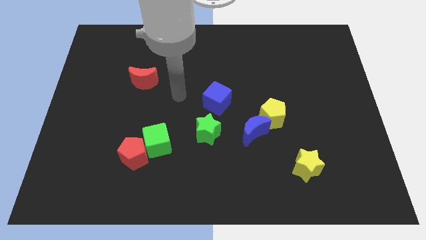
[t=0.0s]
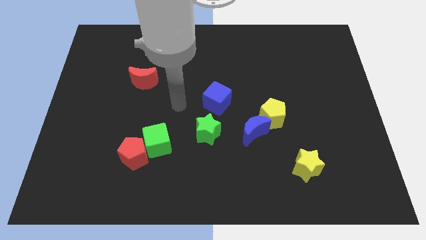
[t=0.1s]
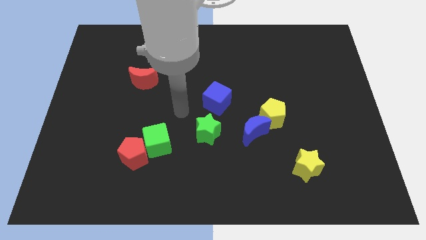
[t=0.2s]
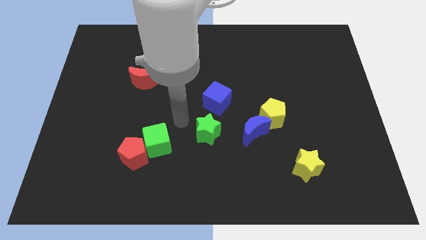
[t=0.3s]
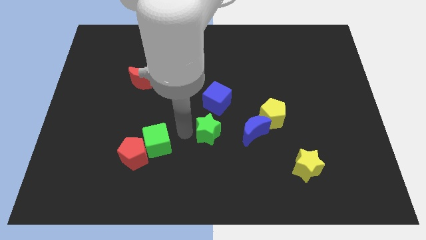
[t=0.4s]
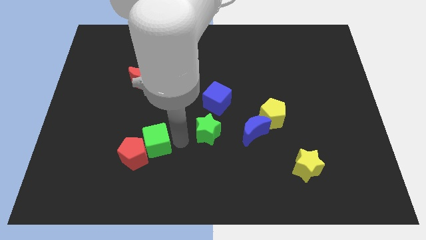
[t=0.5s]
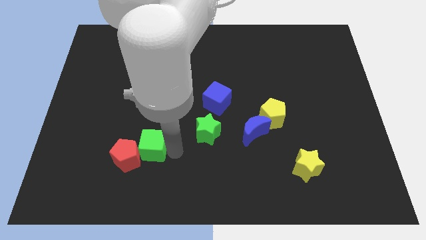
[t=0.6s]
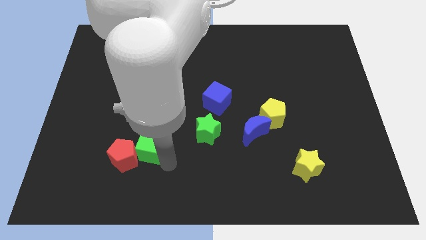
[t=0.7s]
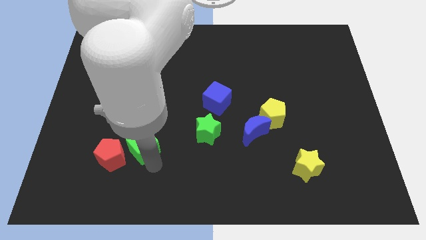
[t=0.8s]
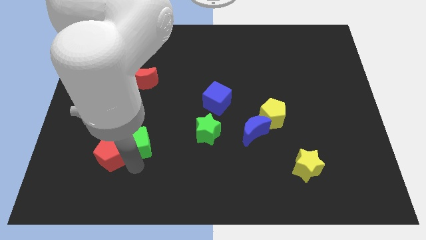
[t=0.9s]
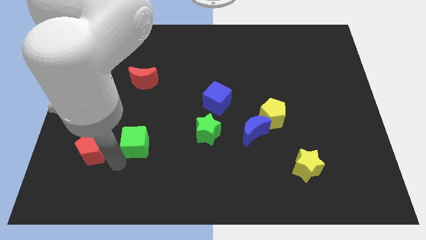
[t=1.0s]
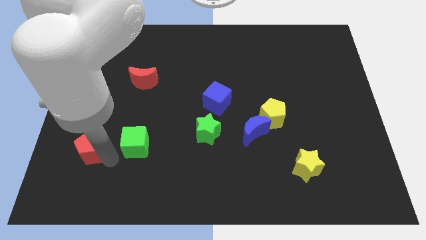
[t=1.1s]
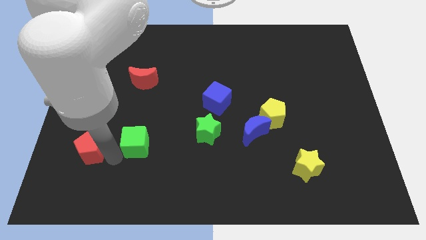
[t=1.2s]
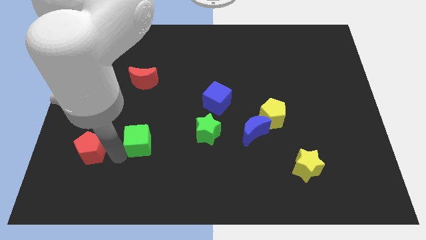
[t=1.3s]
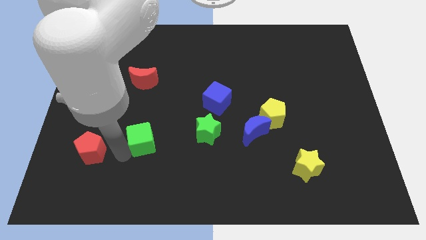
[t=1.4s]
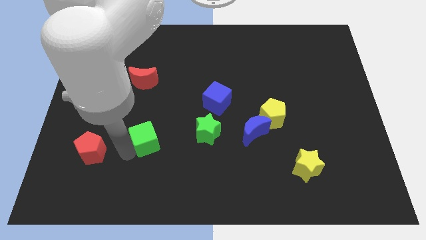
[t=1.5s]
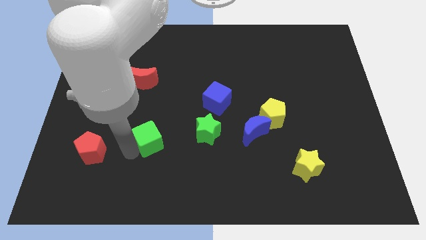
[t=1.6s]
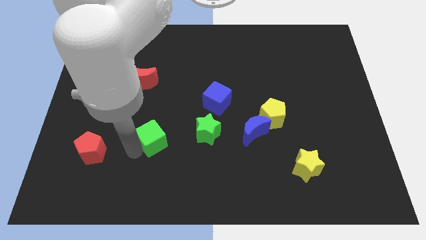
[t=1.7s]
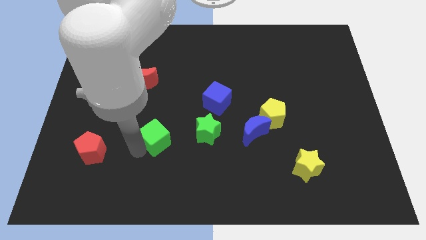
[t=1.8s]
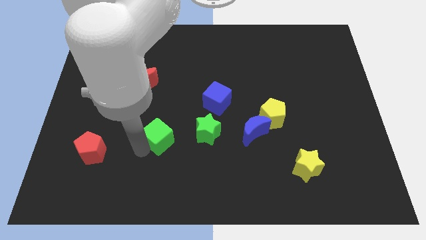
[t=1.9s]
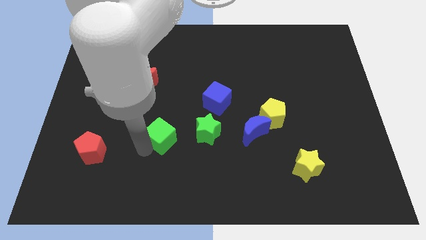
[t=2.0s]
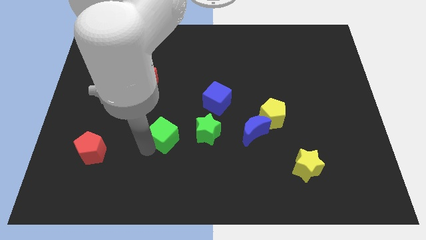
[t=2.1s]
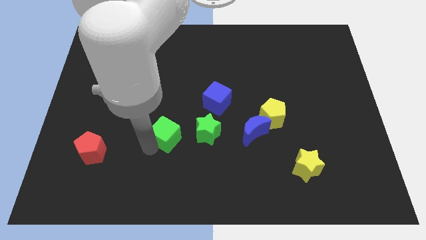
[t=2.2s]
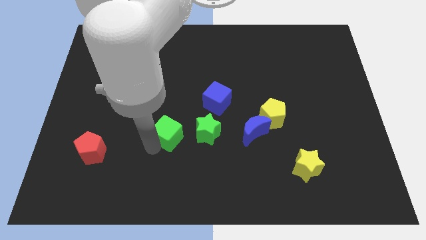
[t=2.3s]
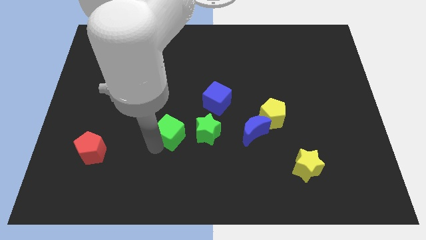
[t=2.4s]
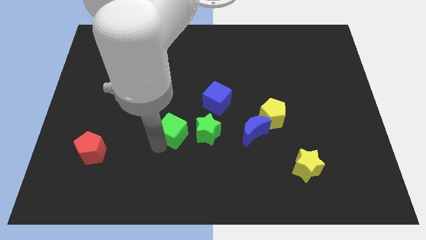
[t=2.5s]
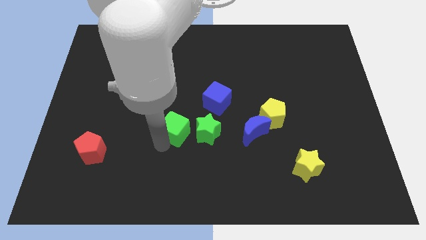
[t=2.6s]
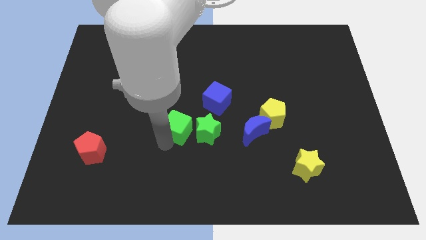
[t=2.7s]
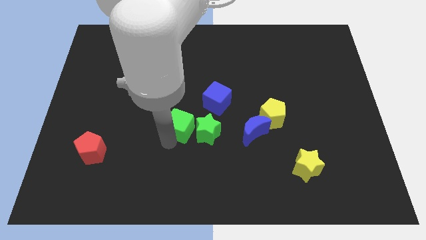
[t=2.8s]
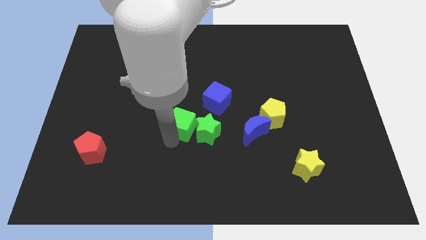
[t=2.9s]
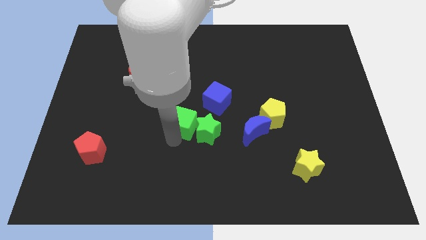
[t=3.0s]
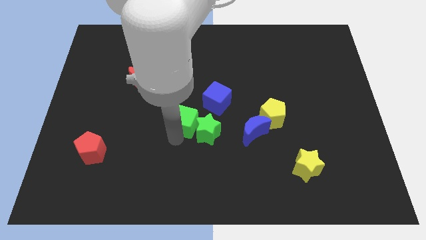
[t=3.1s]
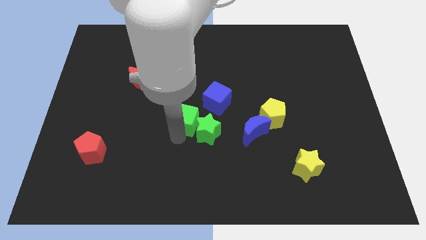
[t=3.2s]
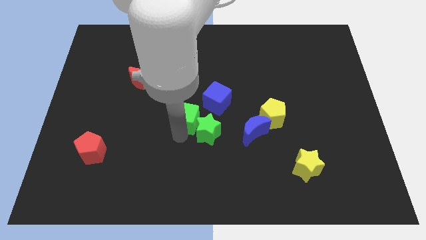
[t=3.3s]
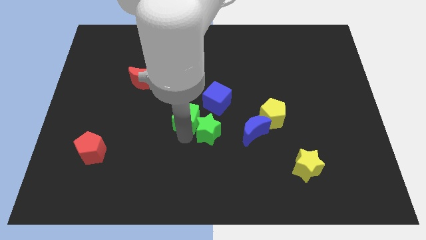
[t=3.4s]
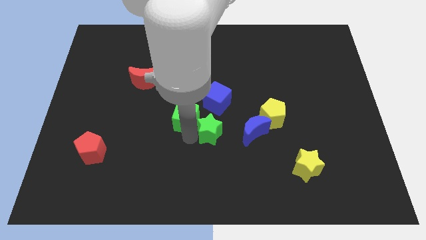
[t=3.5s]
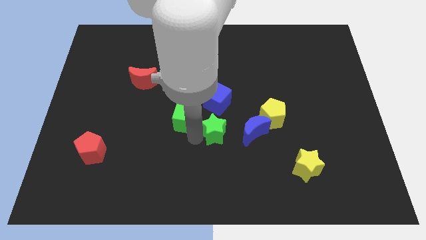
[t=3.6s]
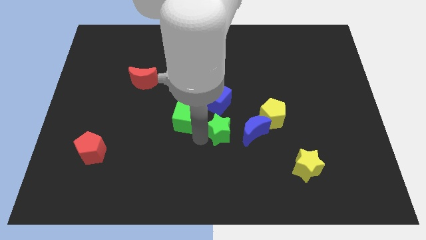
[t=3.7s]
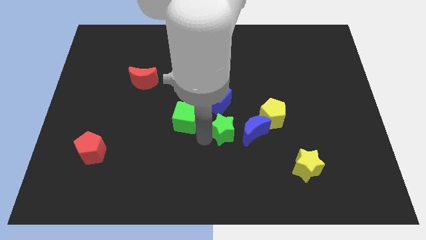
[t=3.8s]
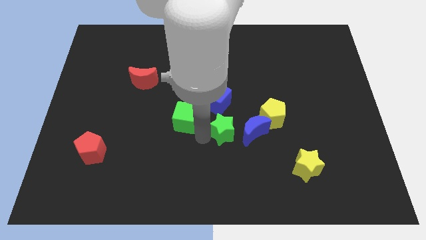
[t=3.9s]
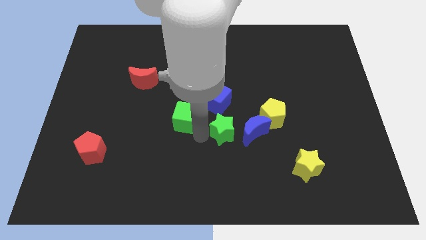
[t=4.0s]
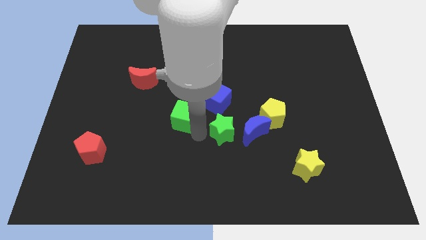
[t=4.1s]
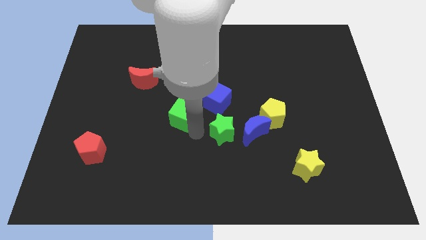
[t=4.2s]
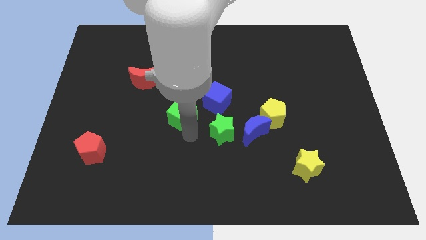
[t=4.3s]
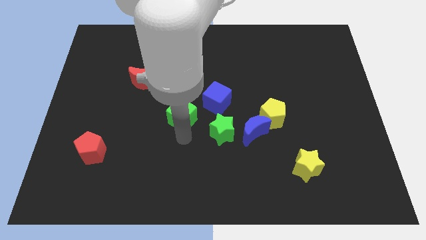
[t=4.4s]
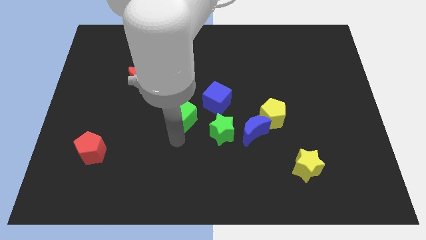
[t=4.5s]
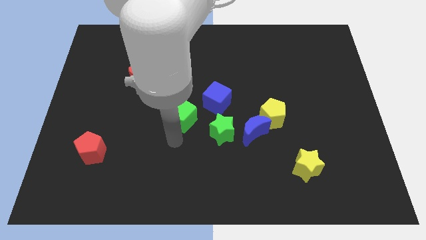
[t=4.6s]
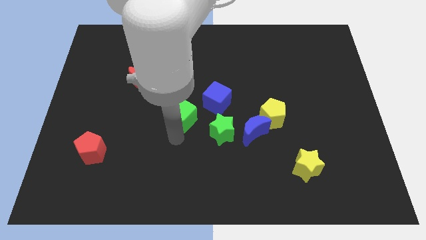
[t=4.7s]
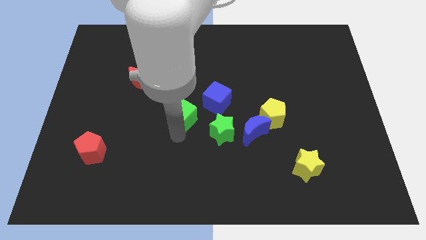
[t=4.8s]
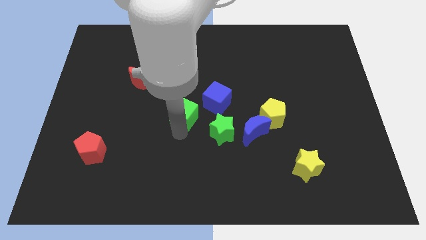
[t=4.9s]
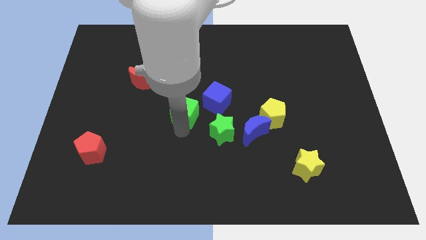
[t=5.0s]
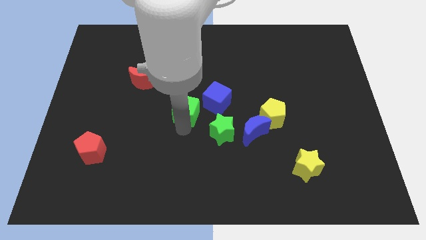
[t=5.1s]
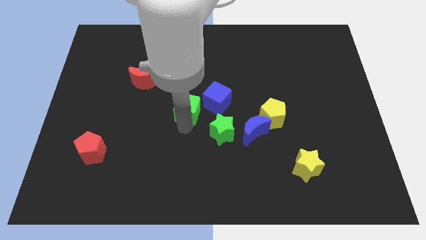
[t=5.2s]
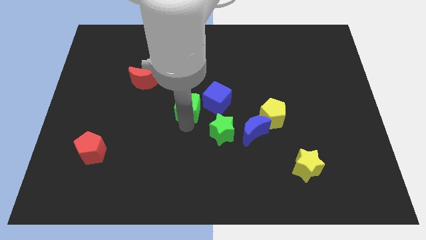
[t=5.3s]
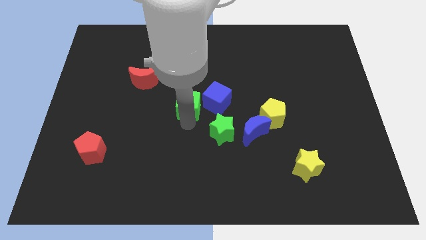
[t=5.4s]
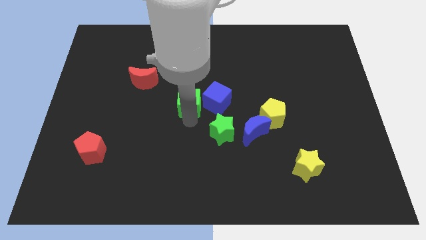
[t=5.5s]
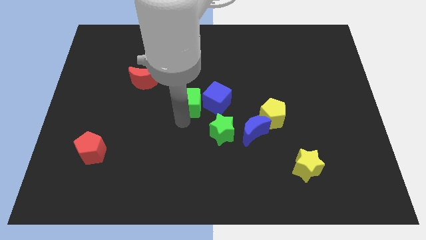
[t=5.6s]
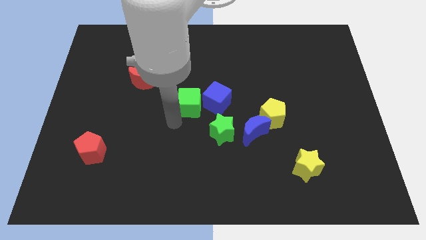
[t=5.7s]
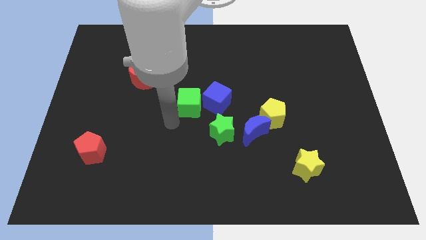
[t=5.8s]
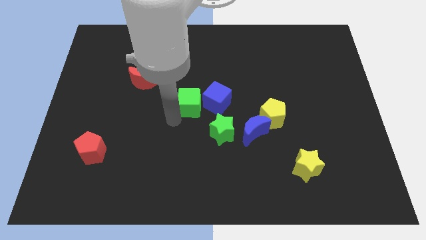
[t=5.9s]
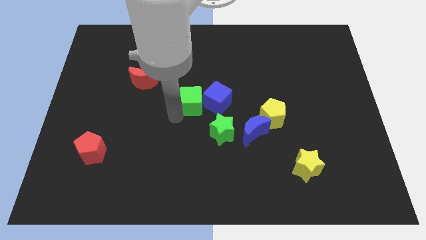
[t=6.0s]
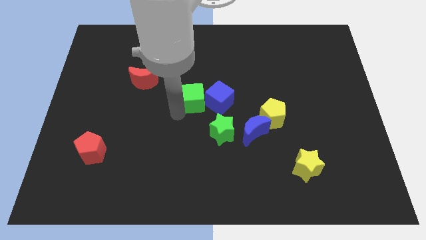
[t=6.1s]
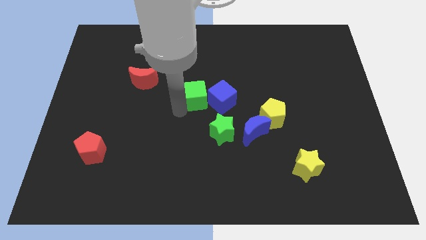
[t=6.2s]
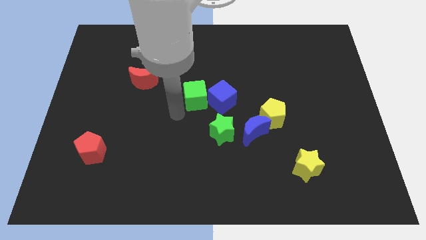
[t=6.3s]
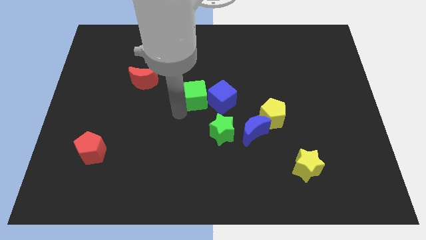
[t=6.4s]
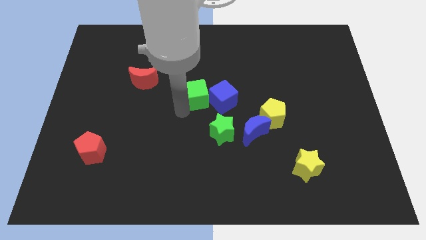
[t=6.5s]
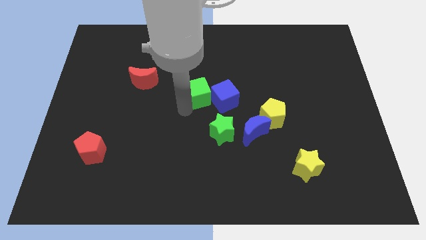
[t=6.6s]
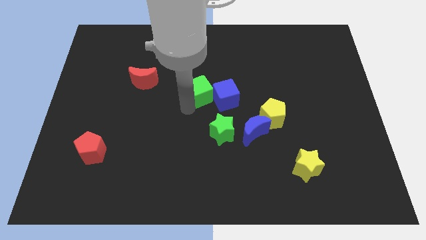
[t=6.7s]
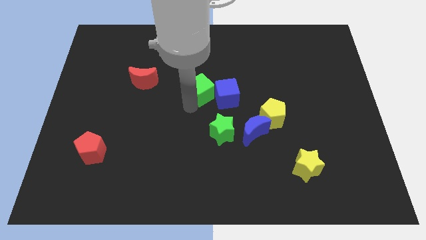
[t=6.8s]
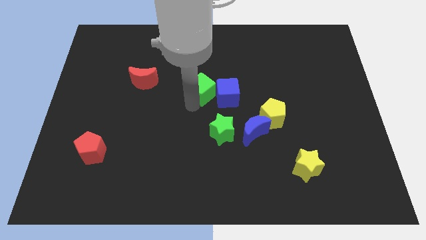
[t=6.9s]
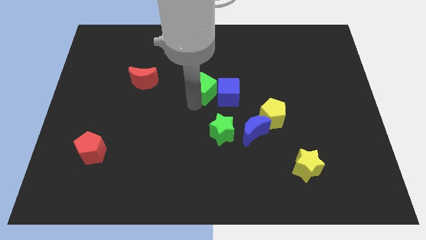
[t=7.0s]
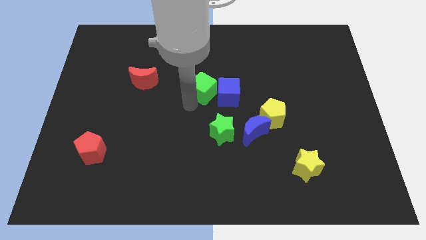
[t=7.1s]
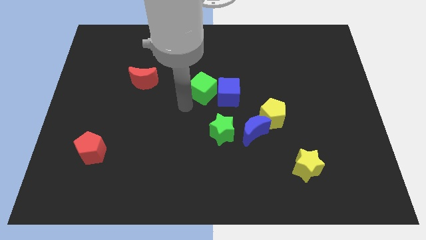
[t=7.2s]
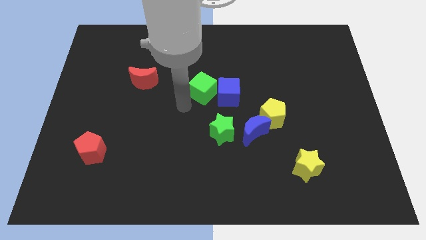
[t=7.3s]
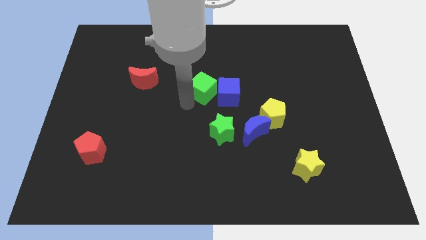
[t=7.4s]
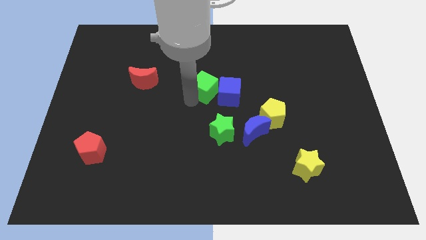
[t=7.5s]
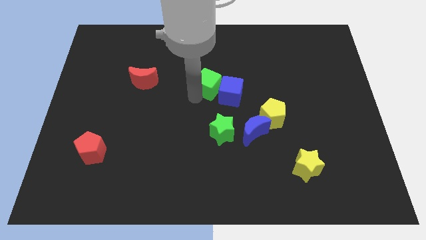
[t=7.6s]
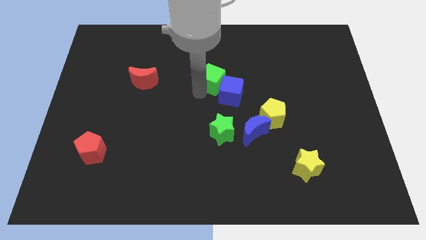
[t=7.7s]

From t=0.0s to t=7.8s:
push the green cube upwards and right diagonally
